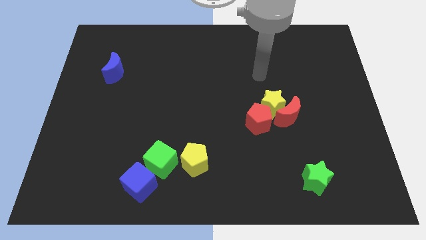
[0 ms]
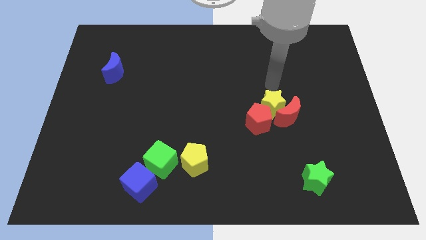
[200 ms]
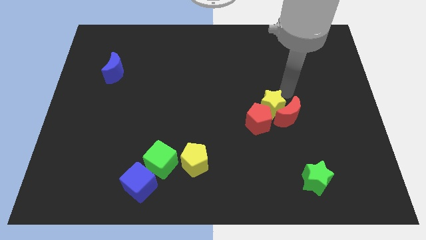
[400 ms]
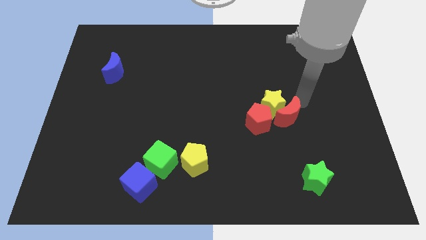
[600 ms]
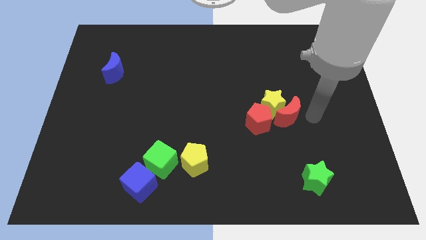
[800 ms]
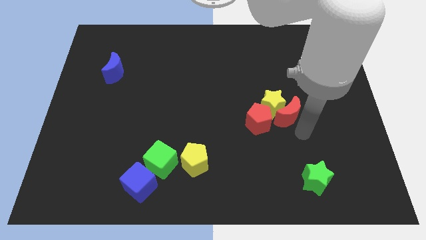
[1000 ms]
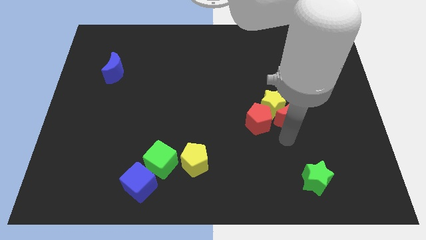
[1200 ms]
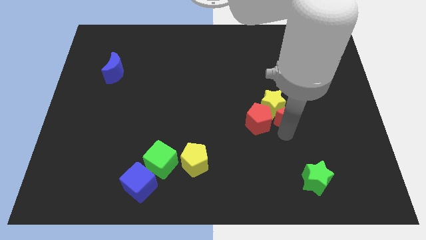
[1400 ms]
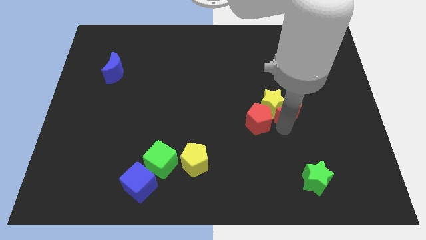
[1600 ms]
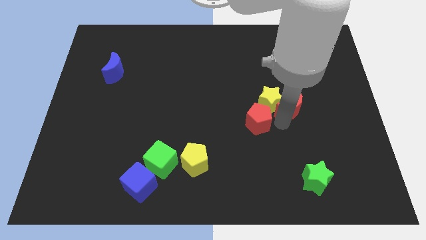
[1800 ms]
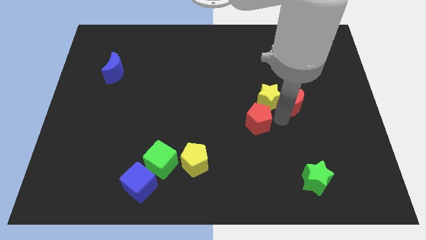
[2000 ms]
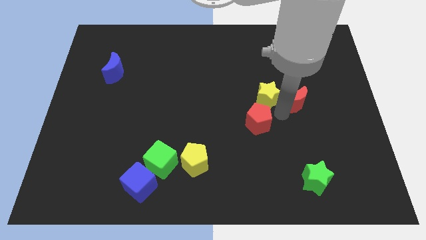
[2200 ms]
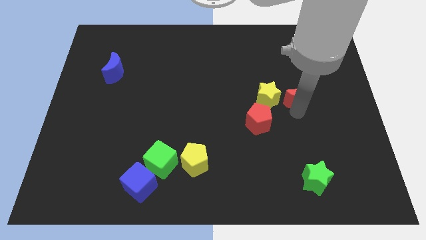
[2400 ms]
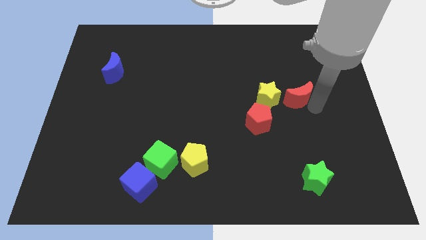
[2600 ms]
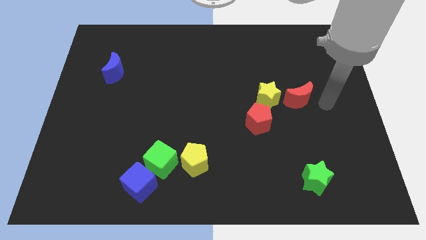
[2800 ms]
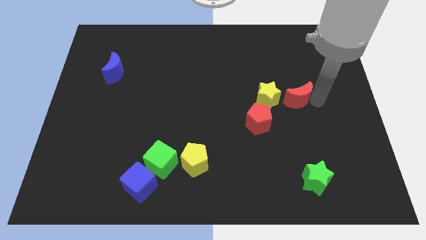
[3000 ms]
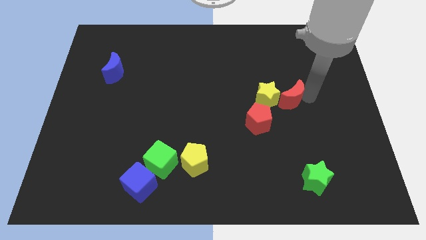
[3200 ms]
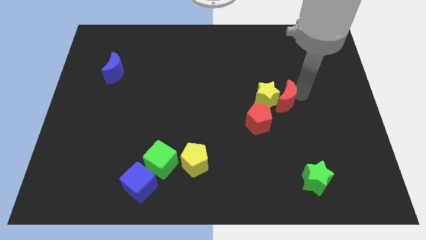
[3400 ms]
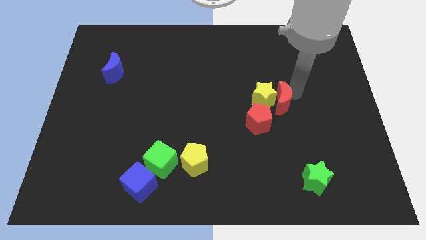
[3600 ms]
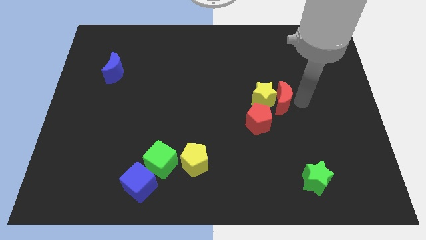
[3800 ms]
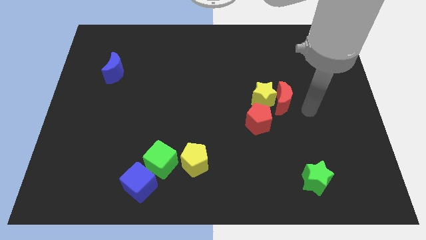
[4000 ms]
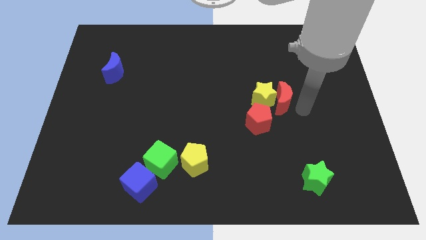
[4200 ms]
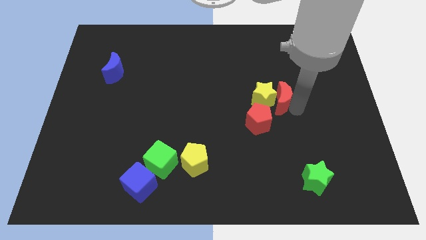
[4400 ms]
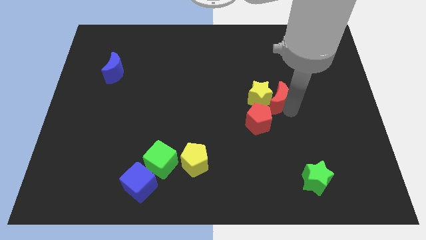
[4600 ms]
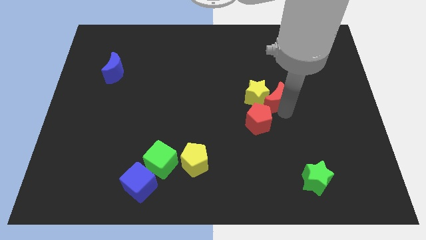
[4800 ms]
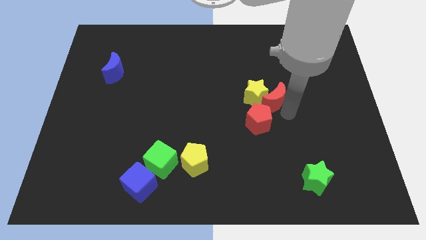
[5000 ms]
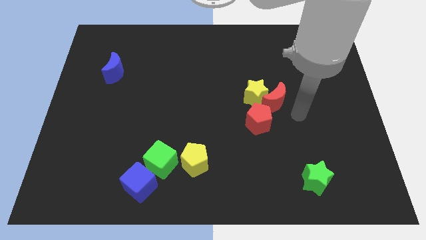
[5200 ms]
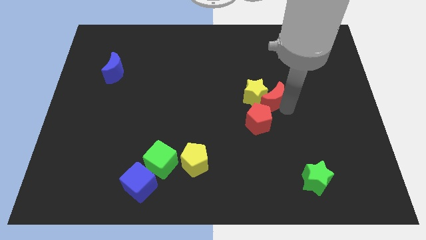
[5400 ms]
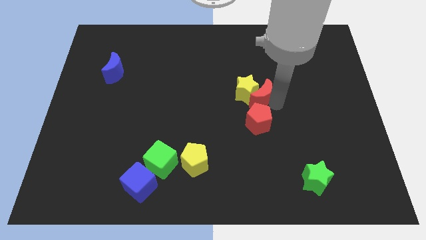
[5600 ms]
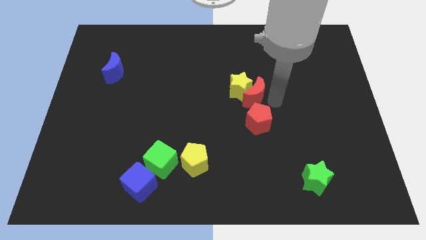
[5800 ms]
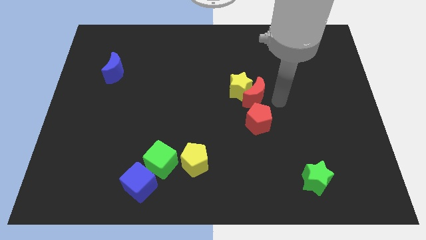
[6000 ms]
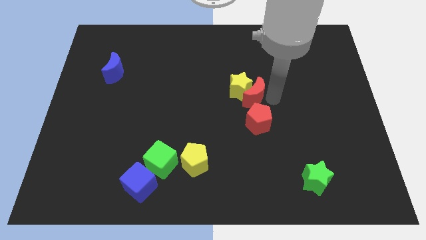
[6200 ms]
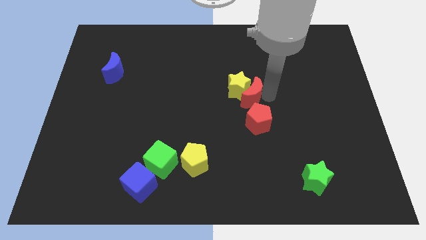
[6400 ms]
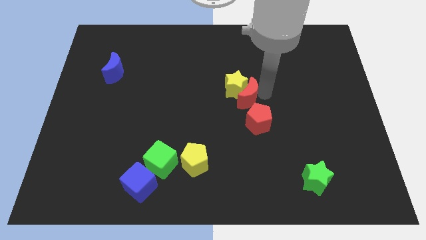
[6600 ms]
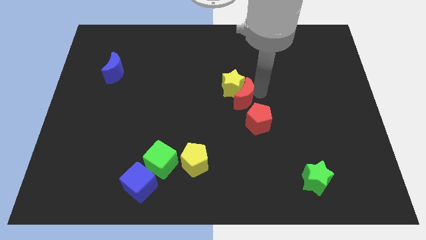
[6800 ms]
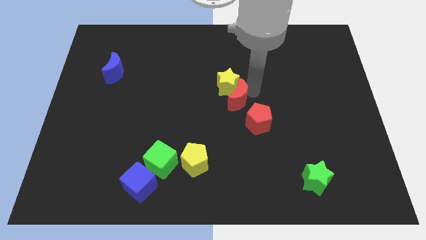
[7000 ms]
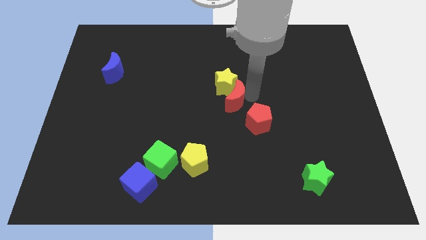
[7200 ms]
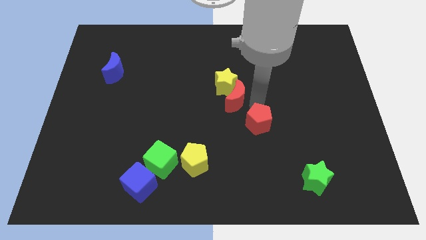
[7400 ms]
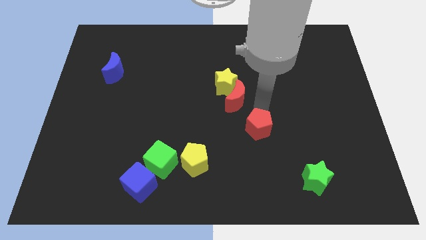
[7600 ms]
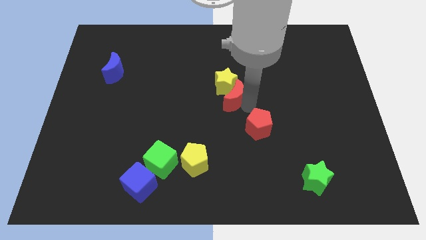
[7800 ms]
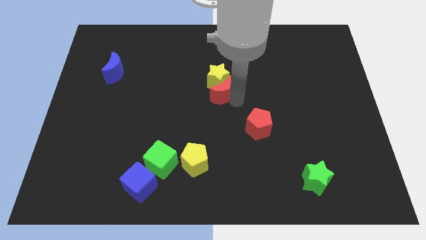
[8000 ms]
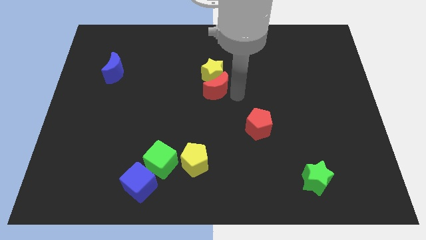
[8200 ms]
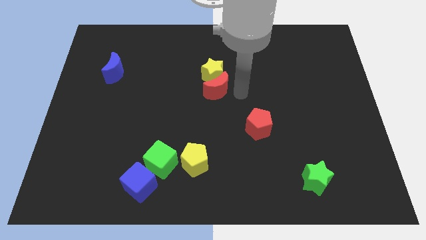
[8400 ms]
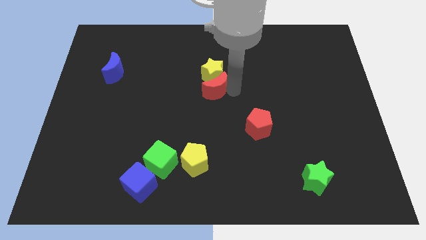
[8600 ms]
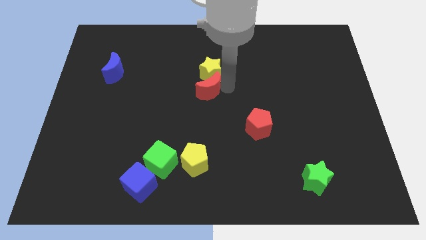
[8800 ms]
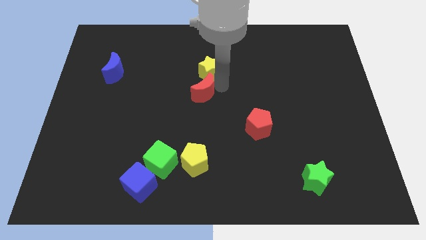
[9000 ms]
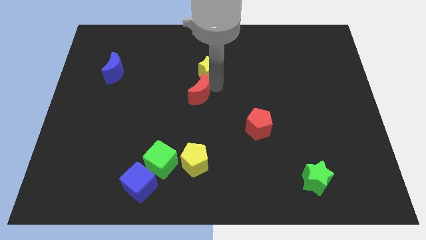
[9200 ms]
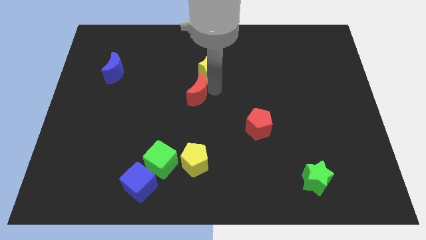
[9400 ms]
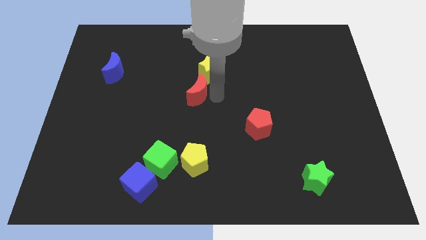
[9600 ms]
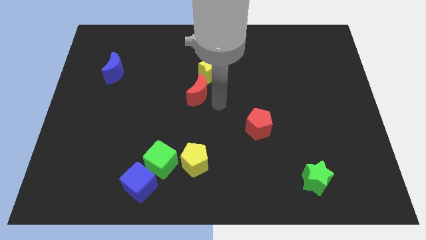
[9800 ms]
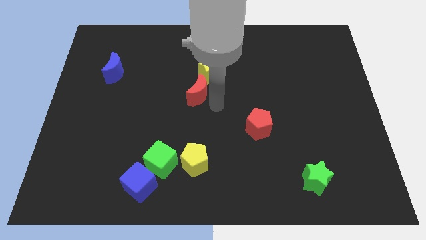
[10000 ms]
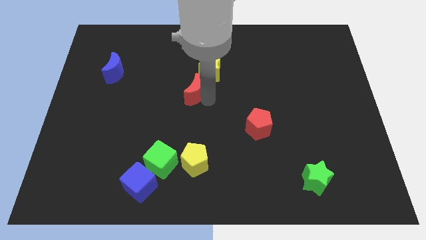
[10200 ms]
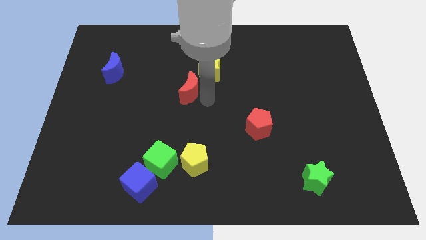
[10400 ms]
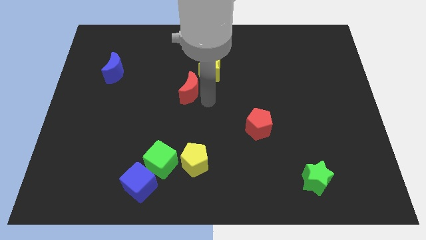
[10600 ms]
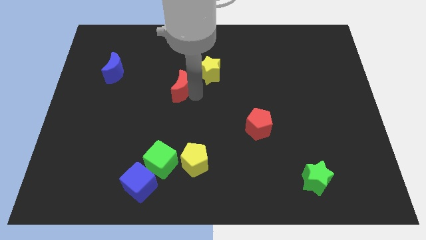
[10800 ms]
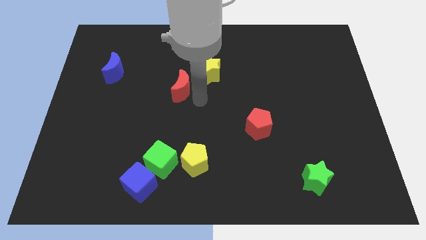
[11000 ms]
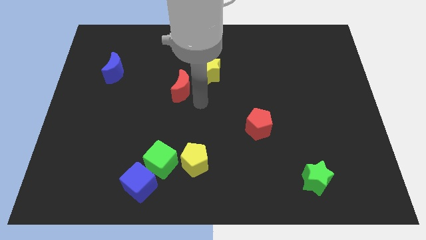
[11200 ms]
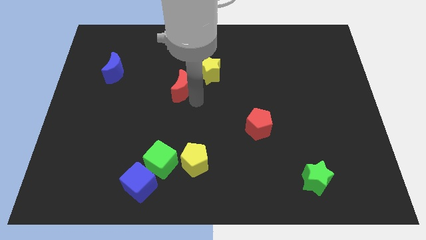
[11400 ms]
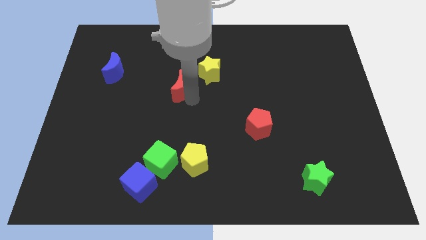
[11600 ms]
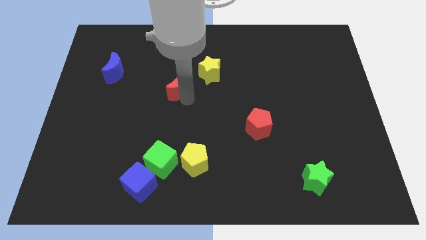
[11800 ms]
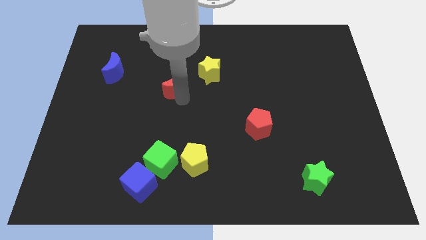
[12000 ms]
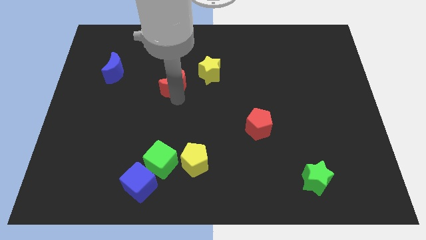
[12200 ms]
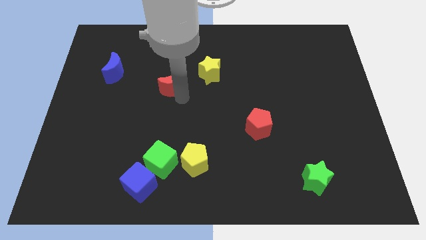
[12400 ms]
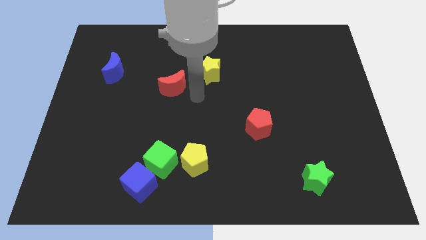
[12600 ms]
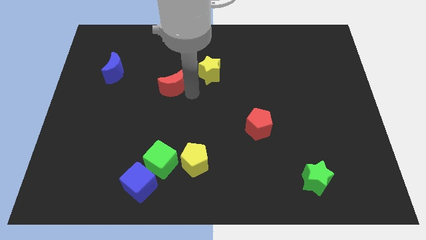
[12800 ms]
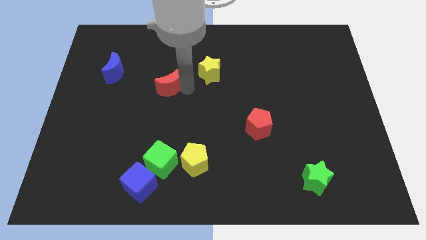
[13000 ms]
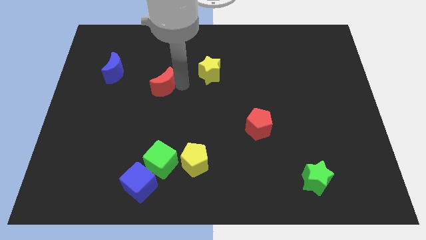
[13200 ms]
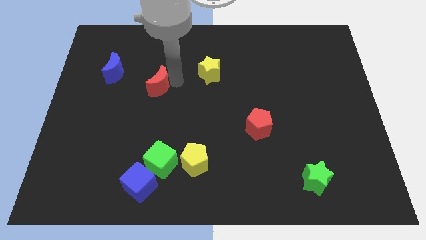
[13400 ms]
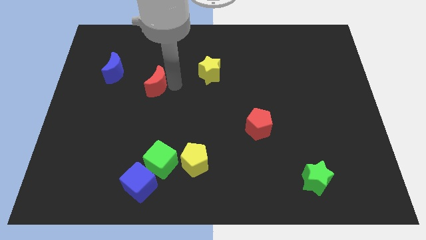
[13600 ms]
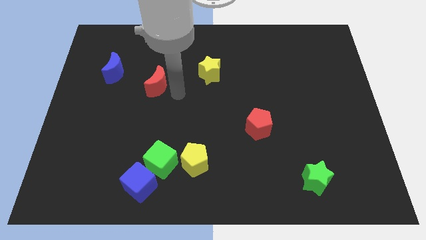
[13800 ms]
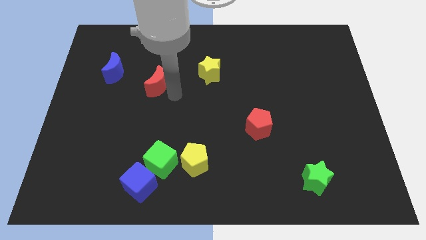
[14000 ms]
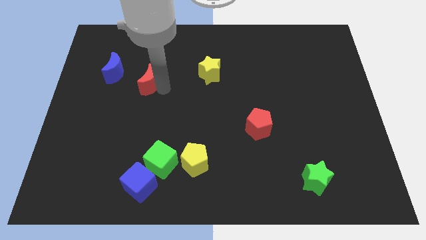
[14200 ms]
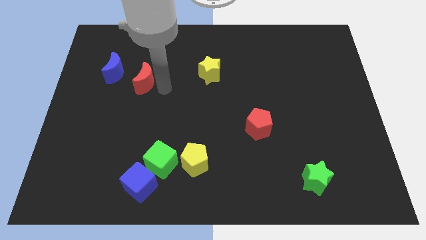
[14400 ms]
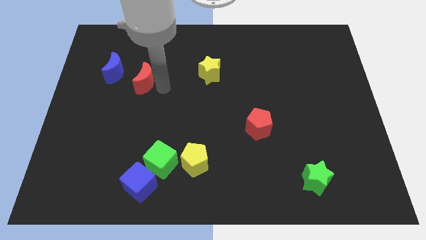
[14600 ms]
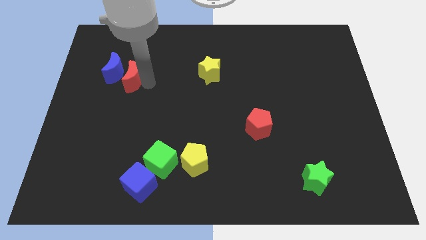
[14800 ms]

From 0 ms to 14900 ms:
move the red moon next to the blue moon

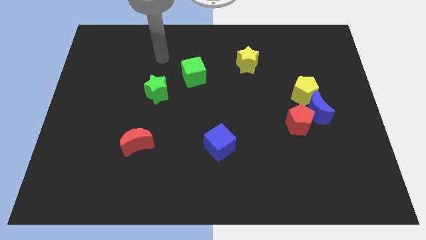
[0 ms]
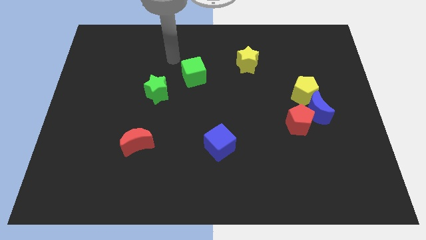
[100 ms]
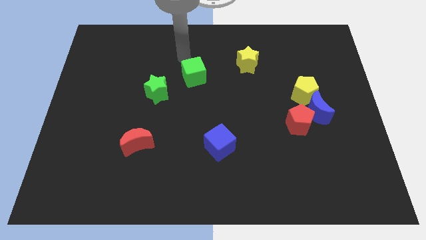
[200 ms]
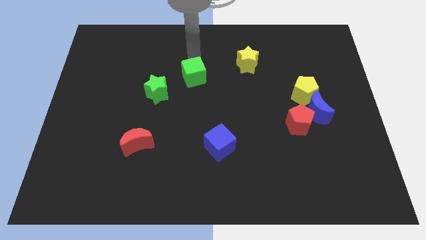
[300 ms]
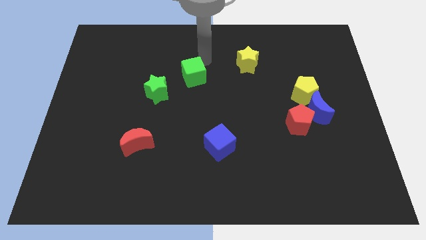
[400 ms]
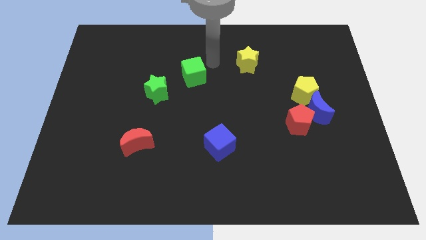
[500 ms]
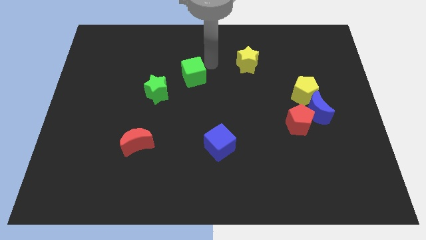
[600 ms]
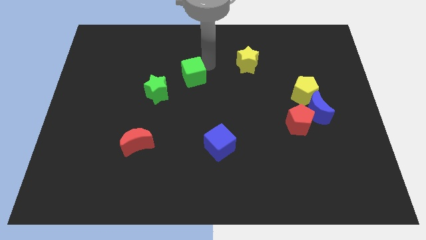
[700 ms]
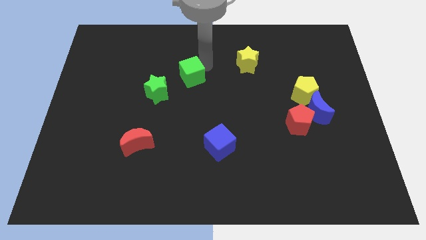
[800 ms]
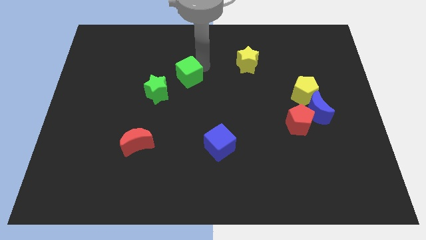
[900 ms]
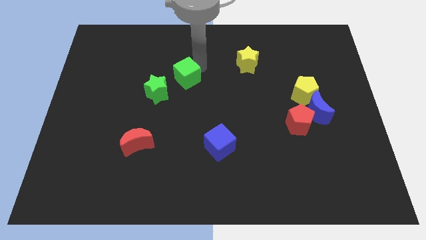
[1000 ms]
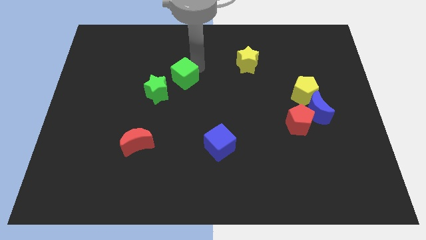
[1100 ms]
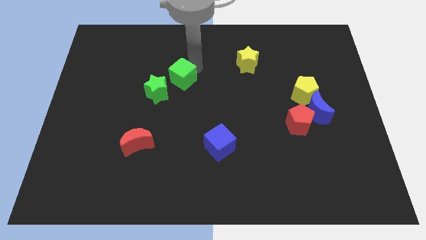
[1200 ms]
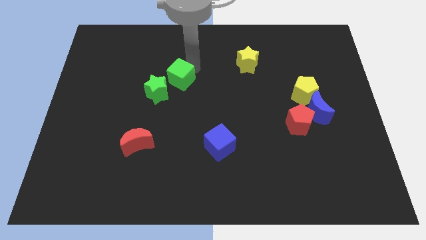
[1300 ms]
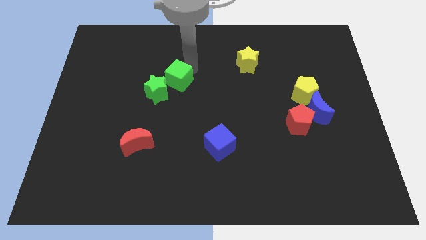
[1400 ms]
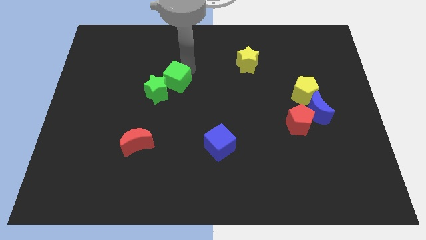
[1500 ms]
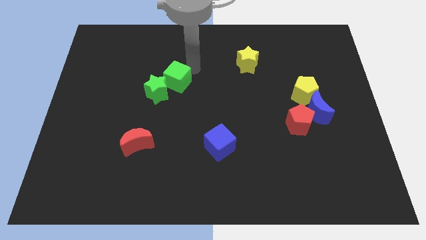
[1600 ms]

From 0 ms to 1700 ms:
push the green cube to the green star
